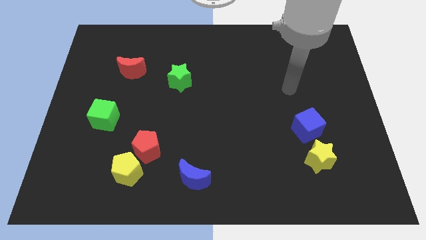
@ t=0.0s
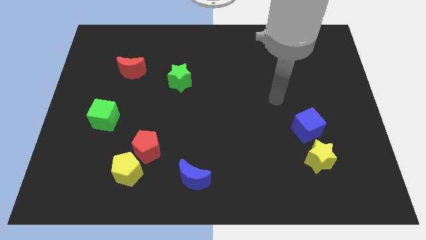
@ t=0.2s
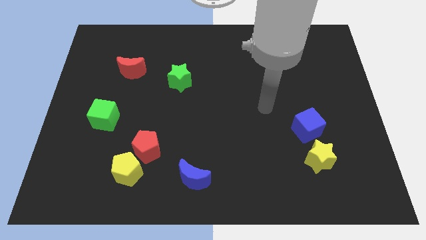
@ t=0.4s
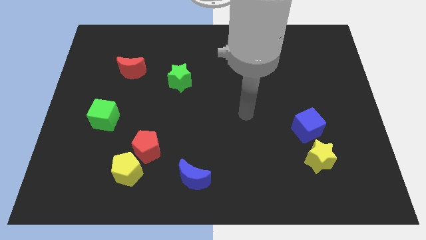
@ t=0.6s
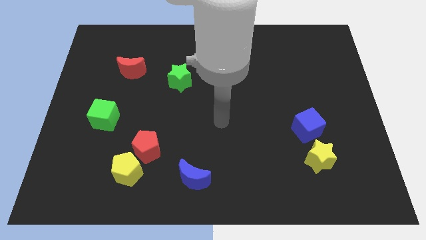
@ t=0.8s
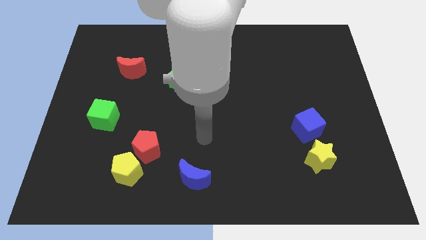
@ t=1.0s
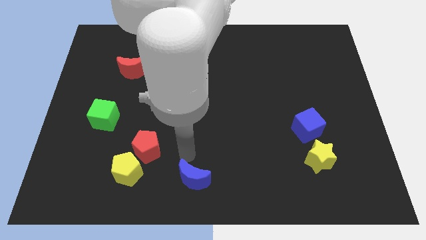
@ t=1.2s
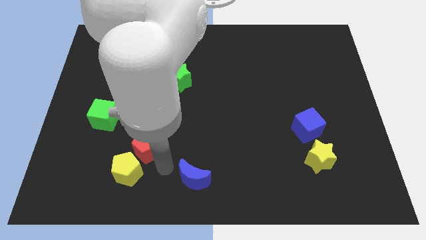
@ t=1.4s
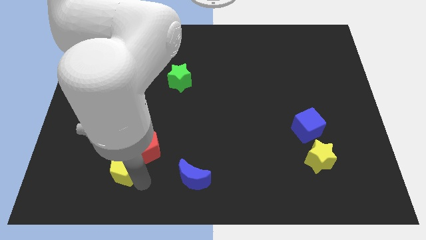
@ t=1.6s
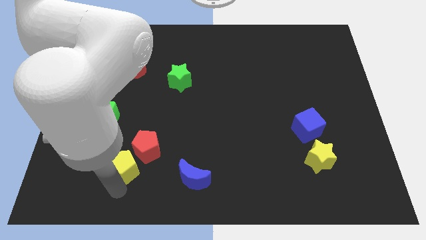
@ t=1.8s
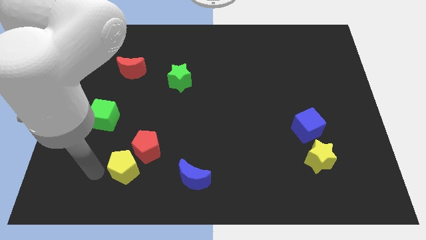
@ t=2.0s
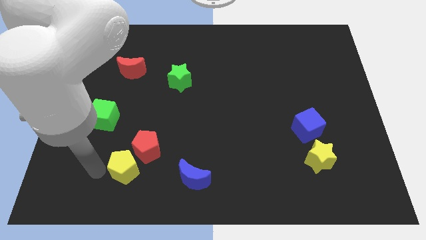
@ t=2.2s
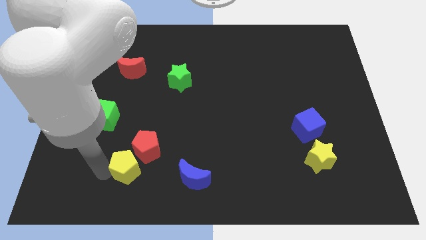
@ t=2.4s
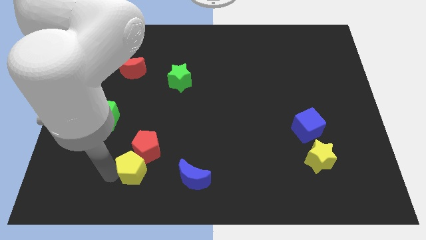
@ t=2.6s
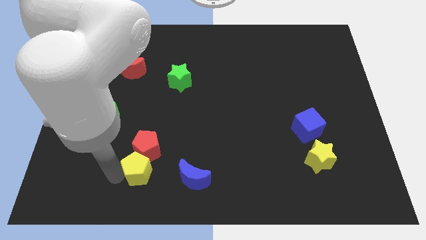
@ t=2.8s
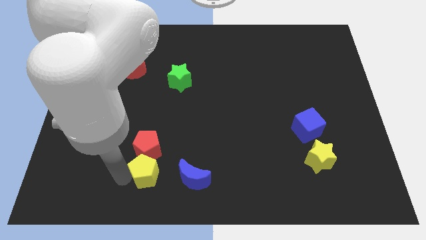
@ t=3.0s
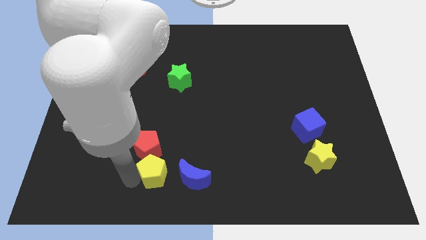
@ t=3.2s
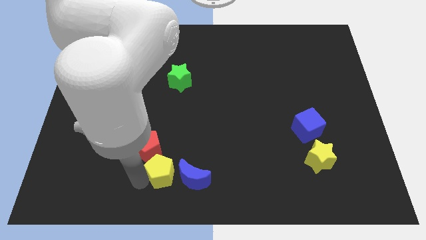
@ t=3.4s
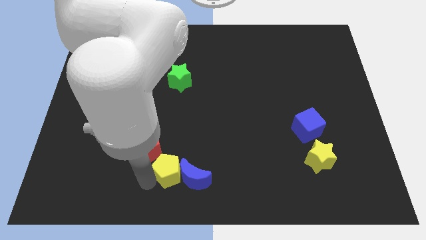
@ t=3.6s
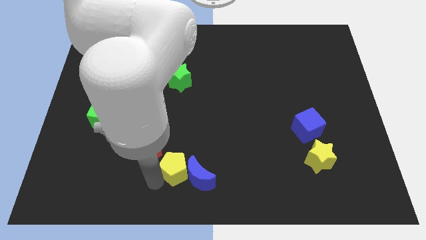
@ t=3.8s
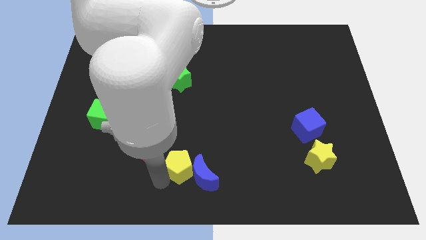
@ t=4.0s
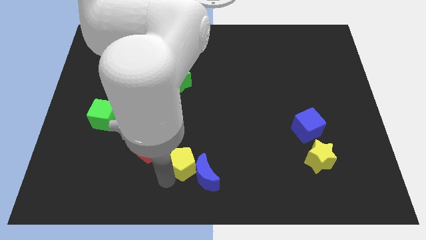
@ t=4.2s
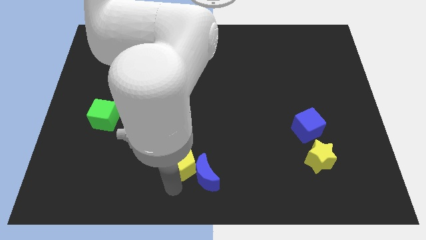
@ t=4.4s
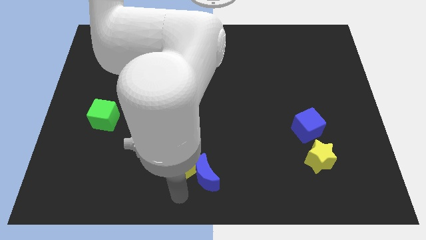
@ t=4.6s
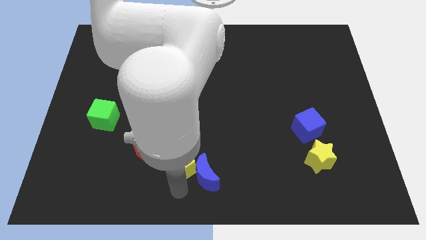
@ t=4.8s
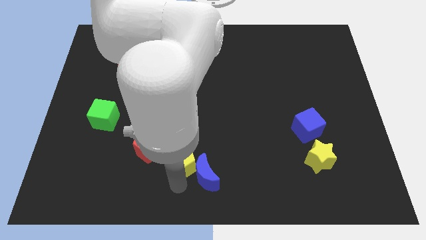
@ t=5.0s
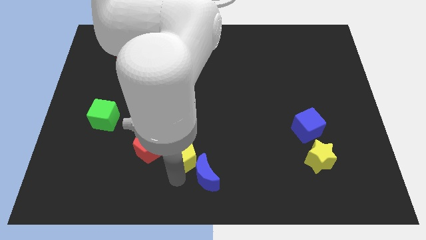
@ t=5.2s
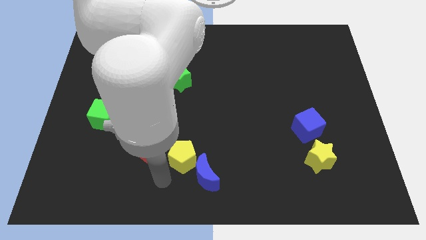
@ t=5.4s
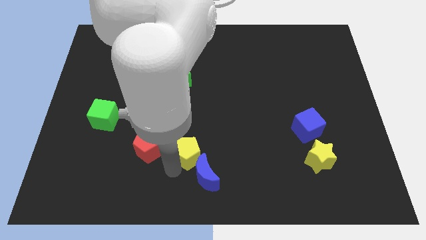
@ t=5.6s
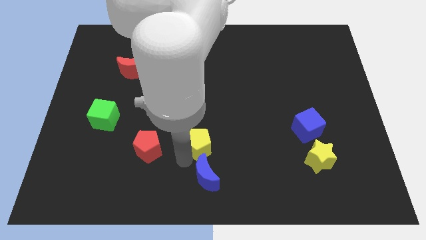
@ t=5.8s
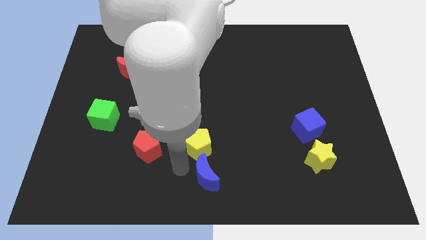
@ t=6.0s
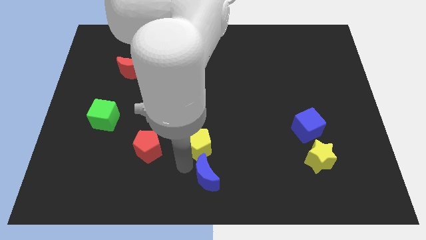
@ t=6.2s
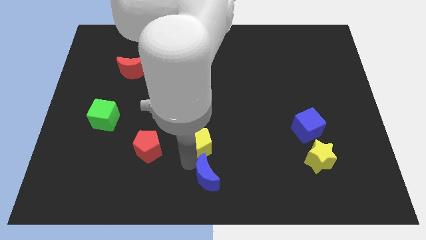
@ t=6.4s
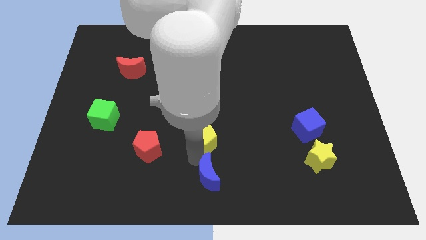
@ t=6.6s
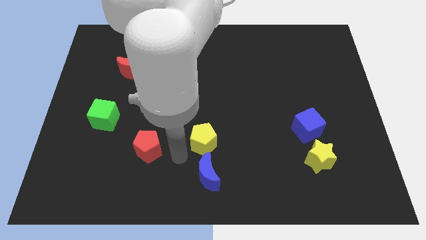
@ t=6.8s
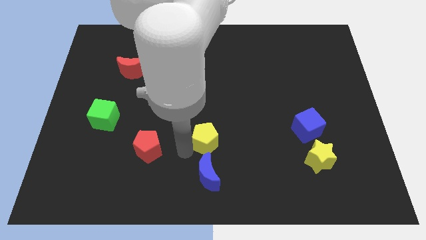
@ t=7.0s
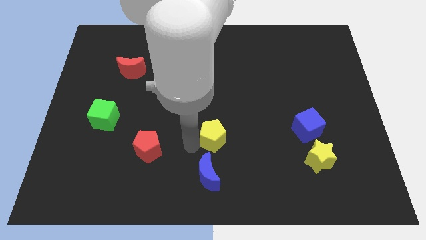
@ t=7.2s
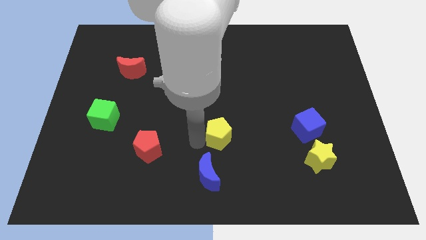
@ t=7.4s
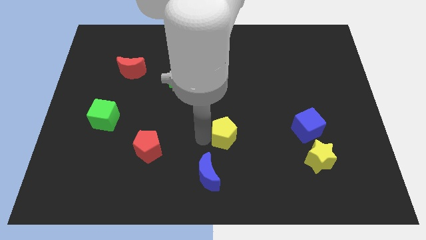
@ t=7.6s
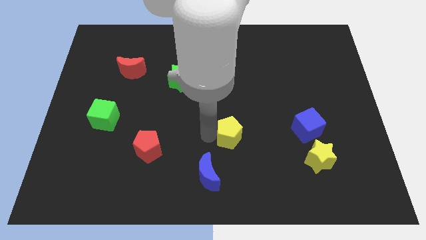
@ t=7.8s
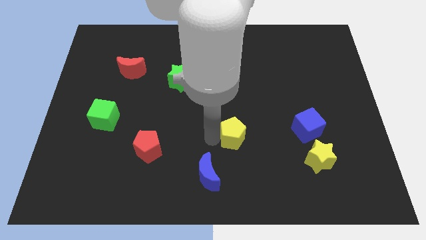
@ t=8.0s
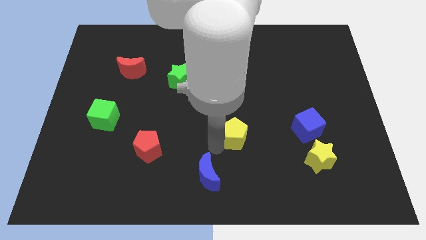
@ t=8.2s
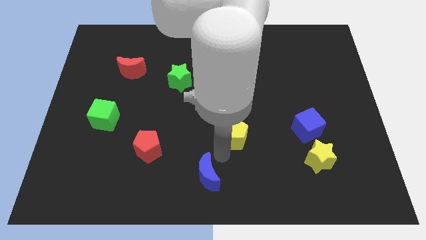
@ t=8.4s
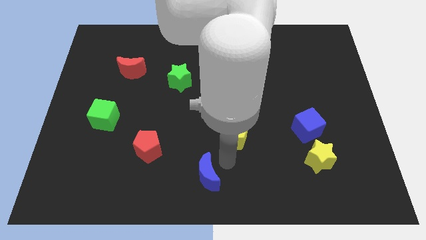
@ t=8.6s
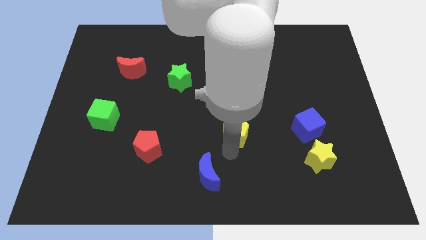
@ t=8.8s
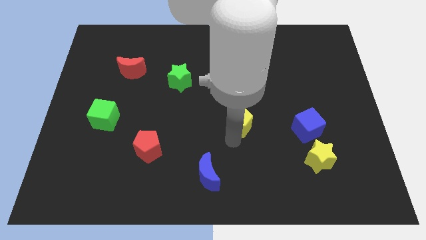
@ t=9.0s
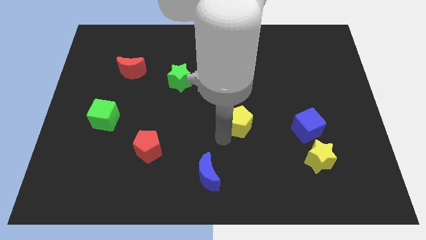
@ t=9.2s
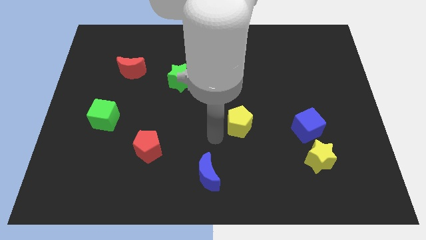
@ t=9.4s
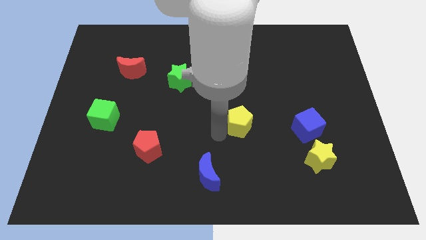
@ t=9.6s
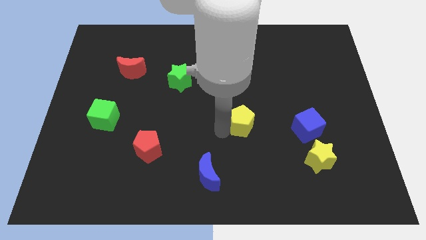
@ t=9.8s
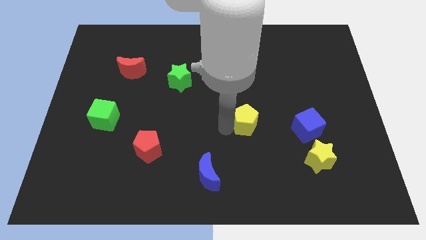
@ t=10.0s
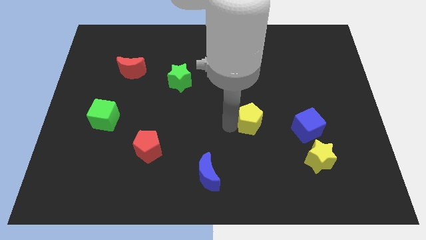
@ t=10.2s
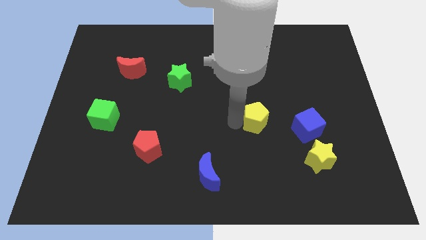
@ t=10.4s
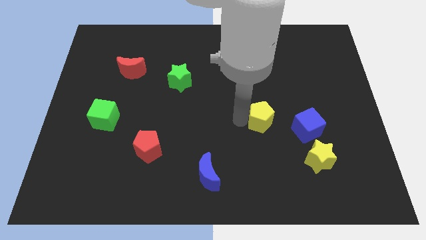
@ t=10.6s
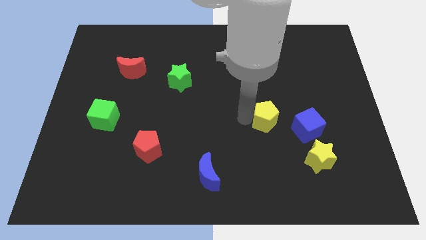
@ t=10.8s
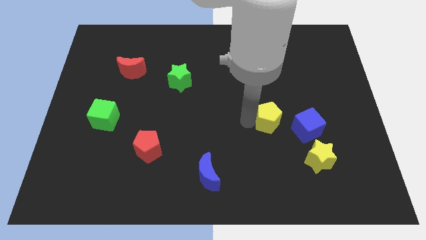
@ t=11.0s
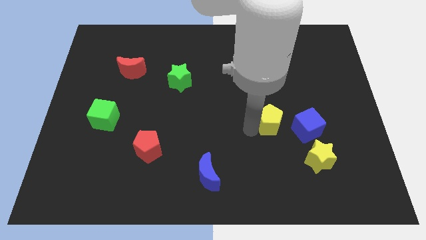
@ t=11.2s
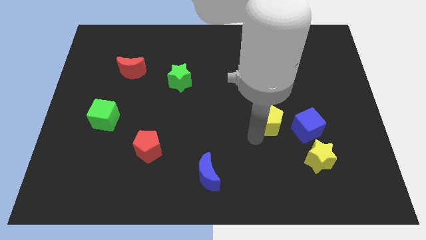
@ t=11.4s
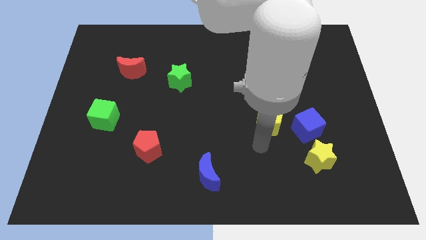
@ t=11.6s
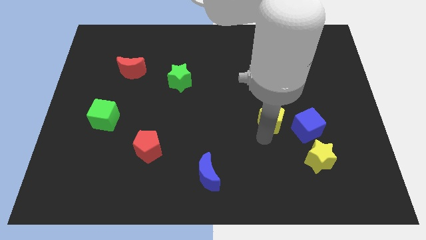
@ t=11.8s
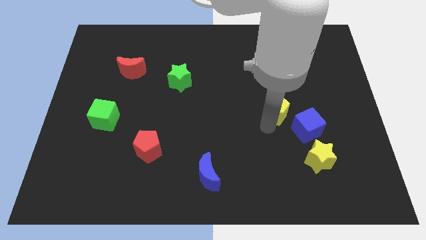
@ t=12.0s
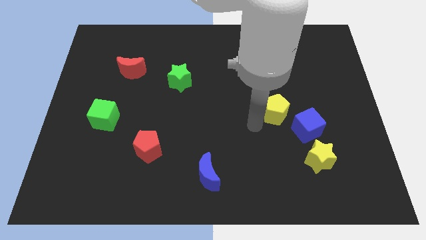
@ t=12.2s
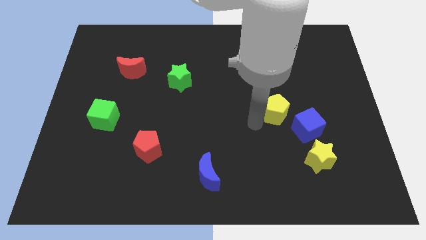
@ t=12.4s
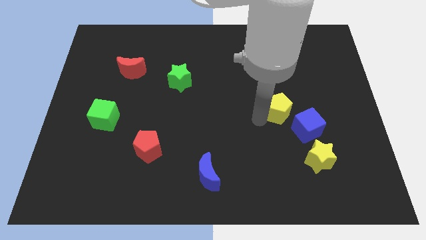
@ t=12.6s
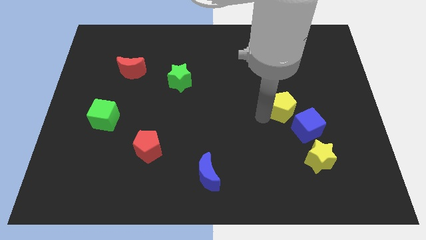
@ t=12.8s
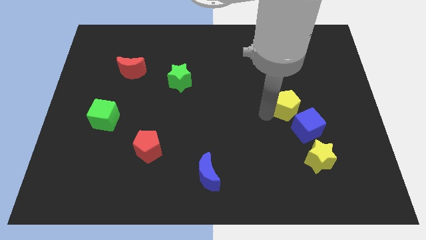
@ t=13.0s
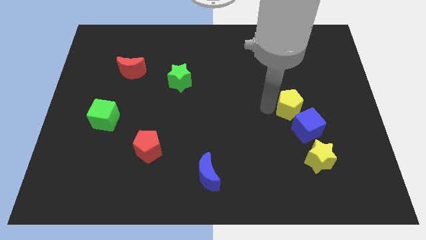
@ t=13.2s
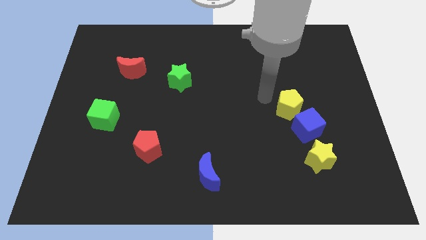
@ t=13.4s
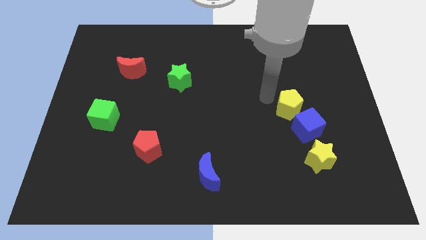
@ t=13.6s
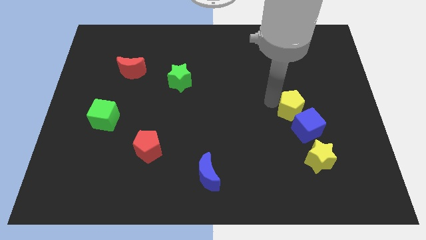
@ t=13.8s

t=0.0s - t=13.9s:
put the yellow pentagon above the yellow star
